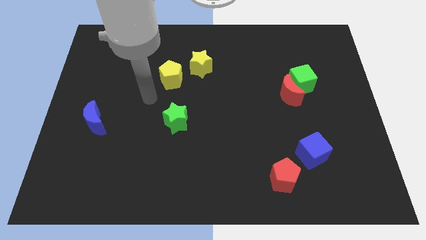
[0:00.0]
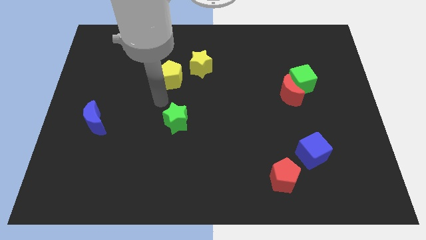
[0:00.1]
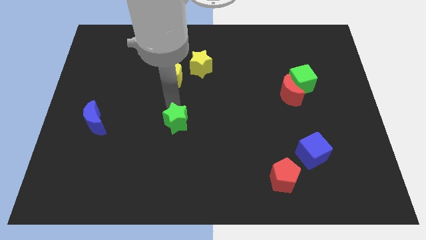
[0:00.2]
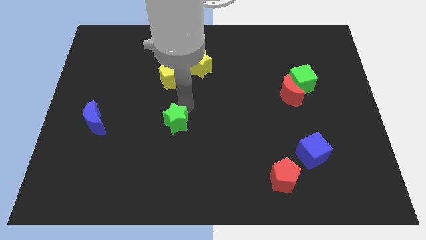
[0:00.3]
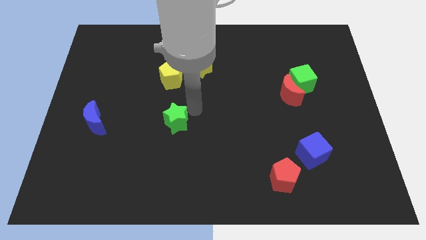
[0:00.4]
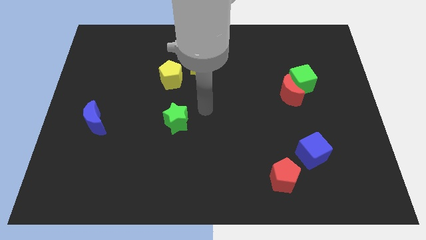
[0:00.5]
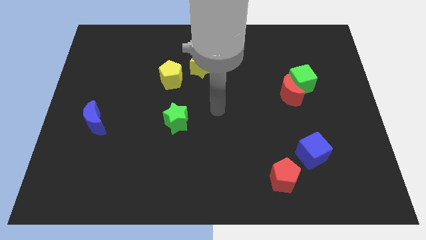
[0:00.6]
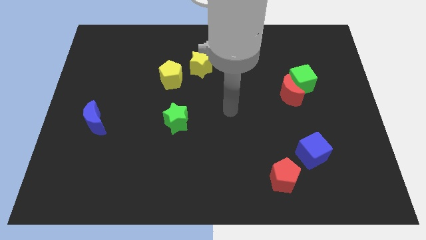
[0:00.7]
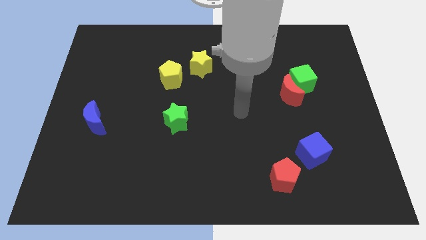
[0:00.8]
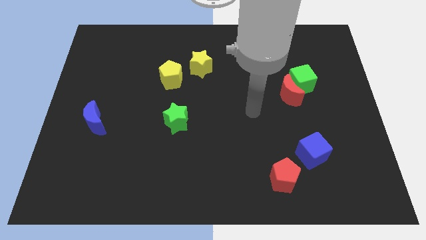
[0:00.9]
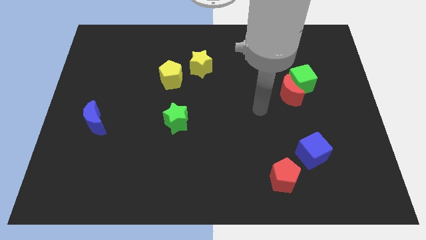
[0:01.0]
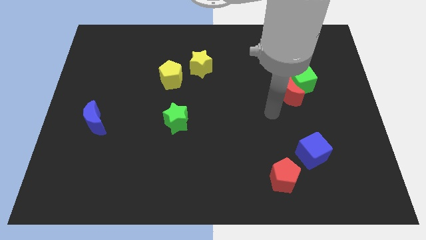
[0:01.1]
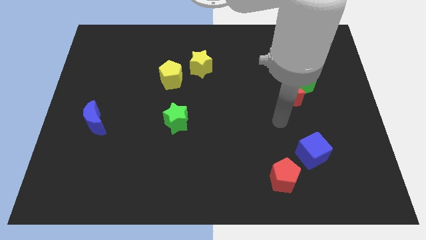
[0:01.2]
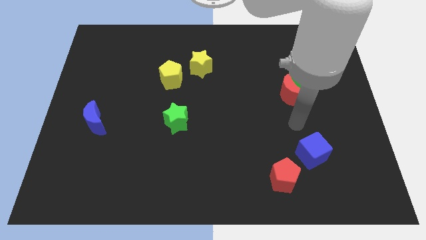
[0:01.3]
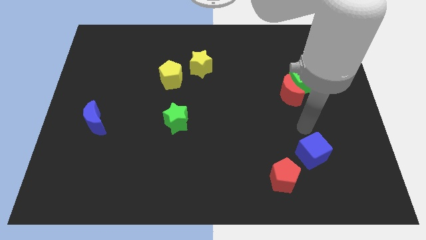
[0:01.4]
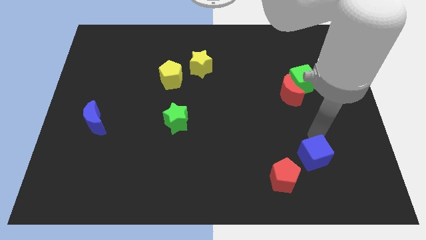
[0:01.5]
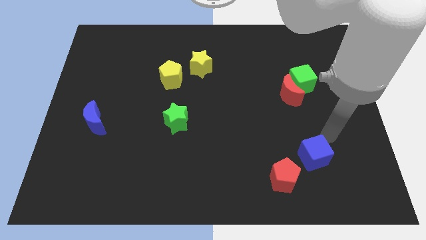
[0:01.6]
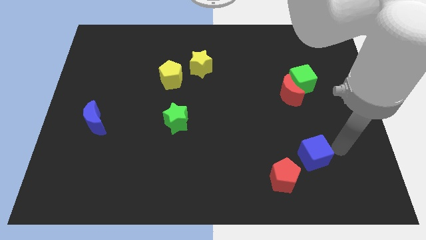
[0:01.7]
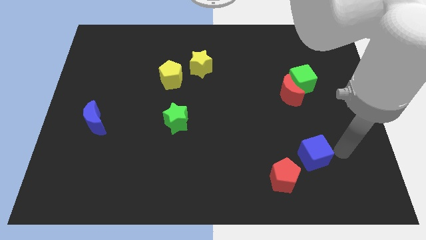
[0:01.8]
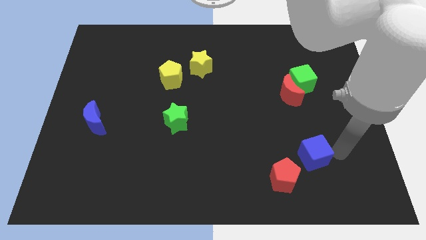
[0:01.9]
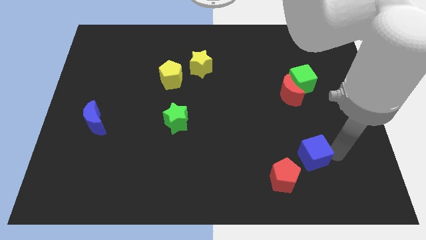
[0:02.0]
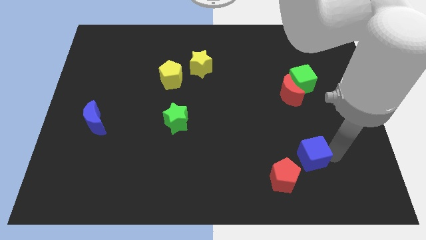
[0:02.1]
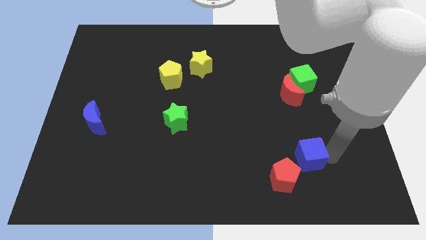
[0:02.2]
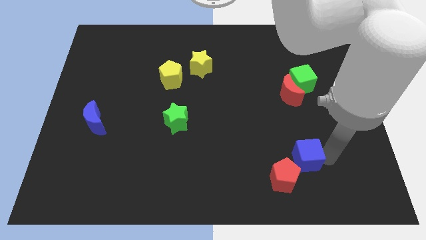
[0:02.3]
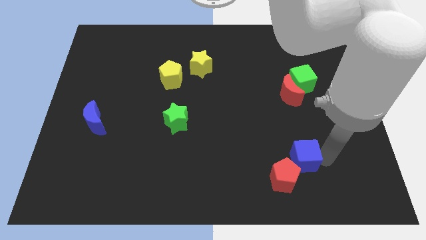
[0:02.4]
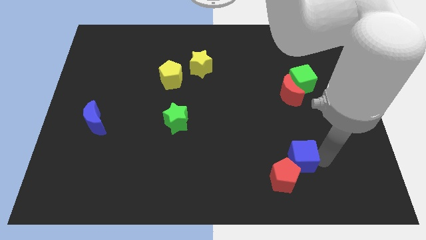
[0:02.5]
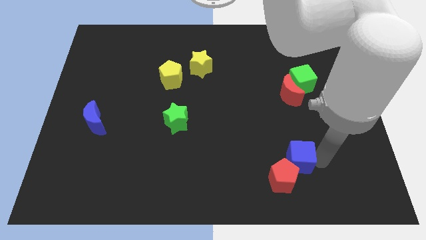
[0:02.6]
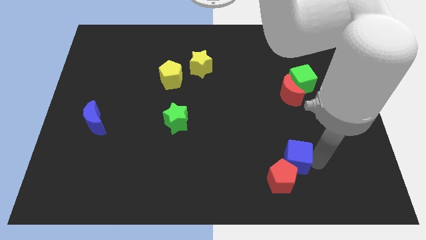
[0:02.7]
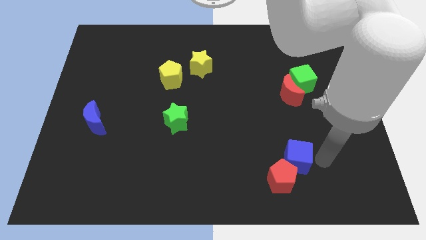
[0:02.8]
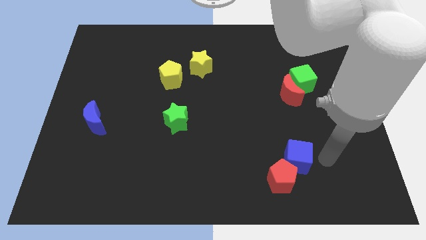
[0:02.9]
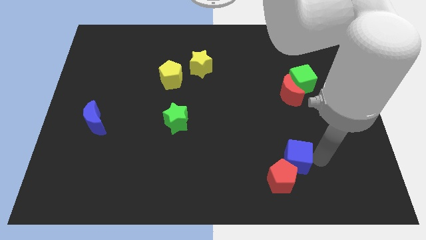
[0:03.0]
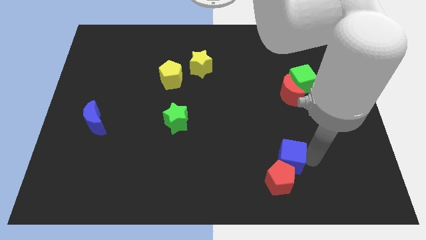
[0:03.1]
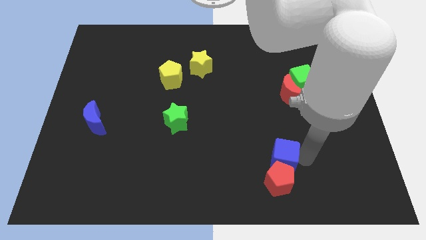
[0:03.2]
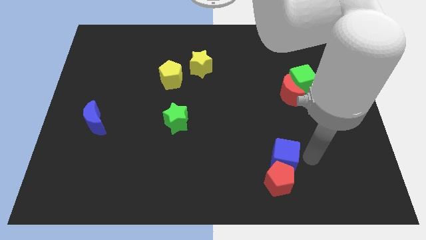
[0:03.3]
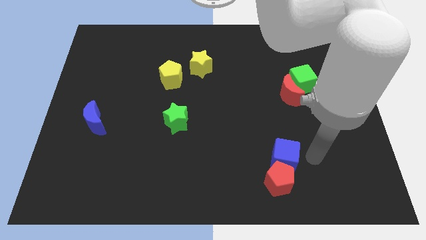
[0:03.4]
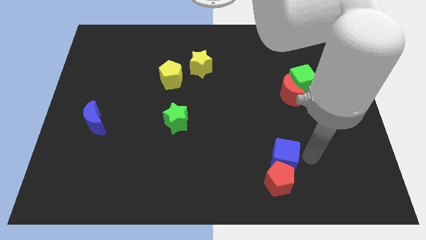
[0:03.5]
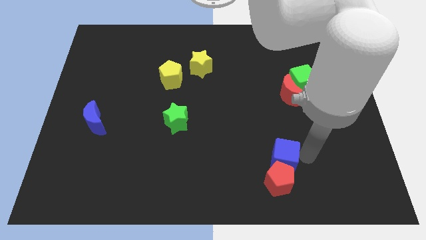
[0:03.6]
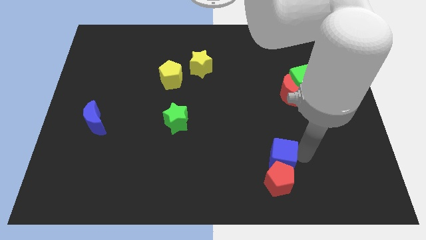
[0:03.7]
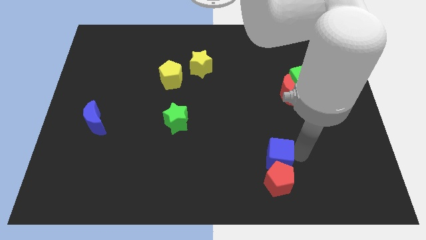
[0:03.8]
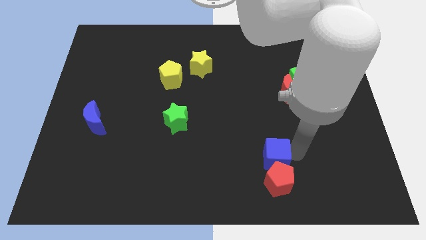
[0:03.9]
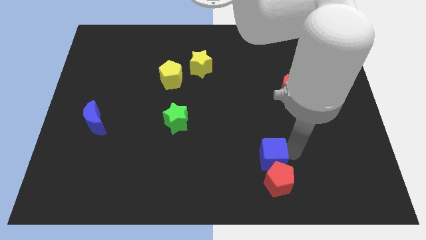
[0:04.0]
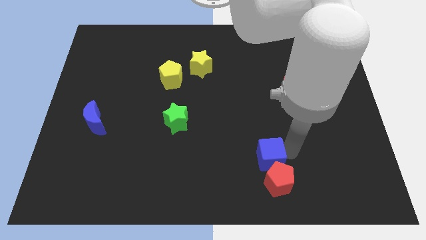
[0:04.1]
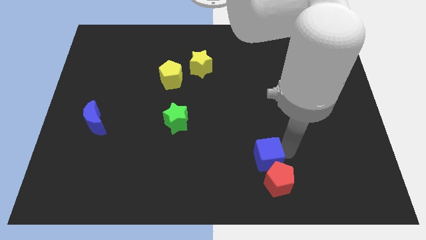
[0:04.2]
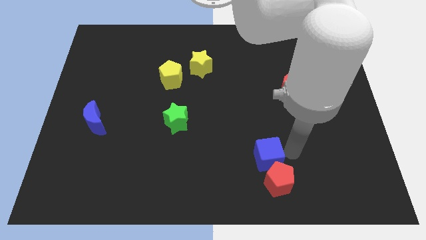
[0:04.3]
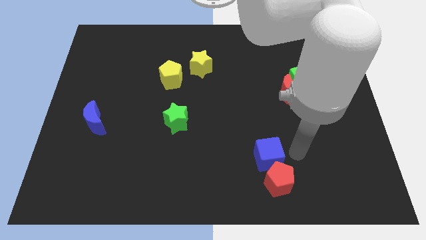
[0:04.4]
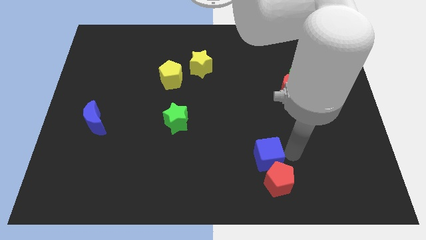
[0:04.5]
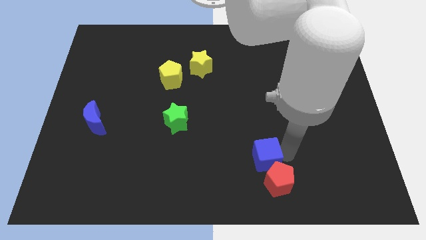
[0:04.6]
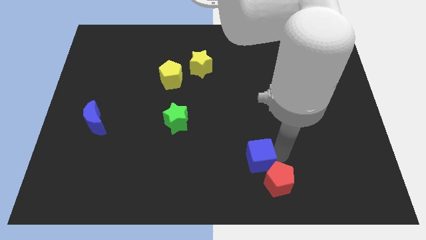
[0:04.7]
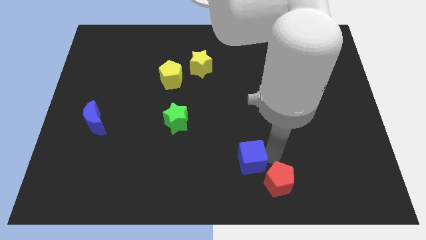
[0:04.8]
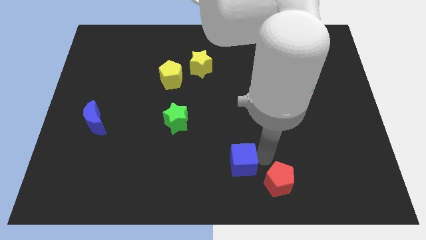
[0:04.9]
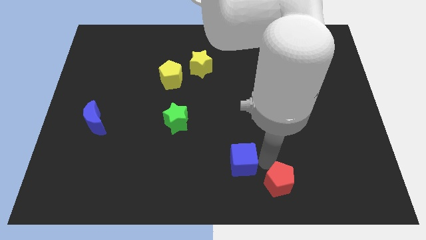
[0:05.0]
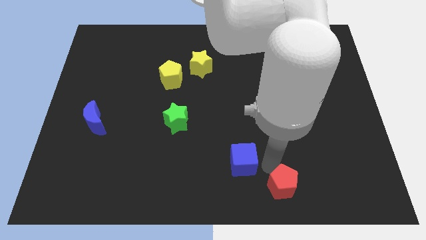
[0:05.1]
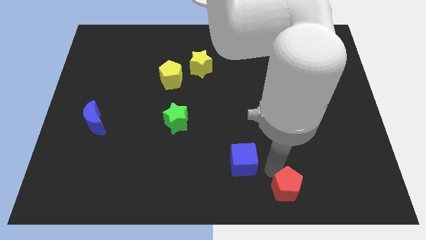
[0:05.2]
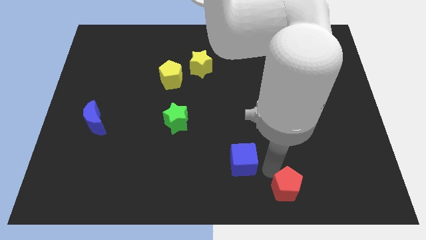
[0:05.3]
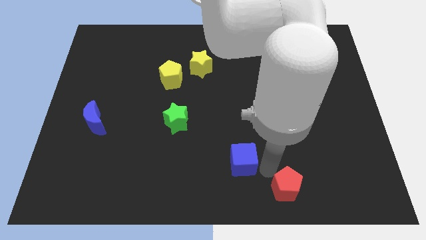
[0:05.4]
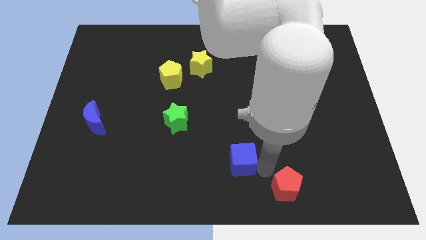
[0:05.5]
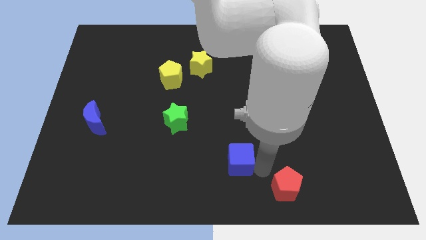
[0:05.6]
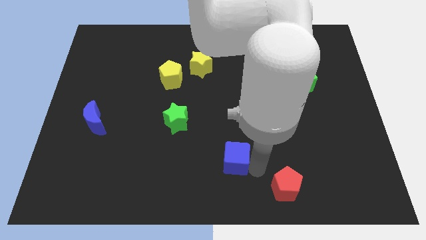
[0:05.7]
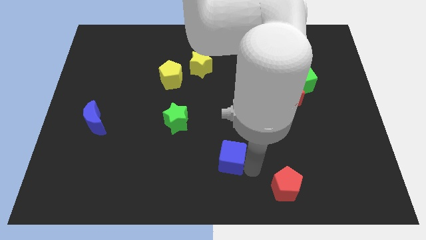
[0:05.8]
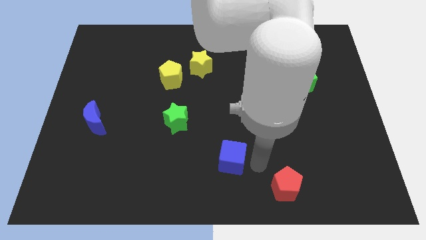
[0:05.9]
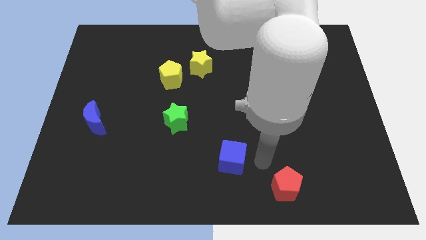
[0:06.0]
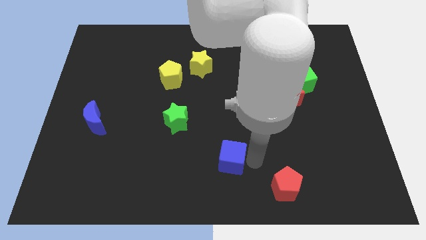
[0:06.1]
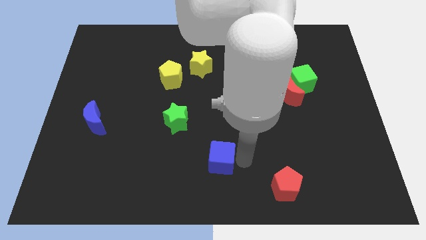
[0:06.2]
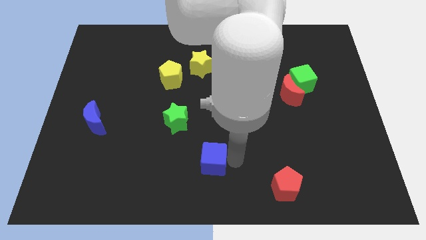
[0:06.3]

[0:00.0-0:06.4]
slide the blue cube to the left

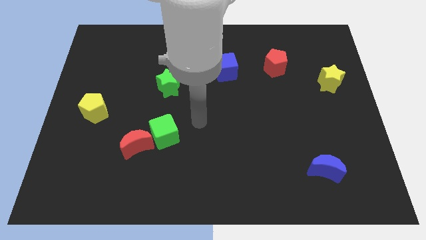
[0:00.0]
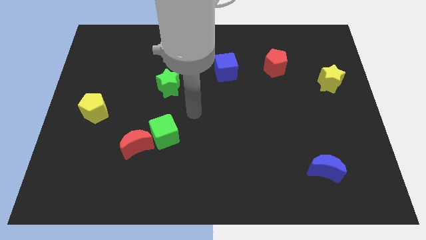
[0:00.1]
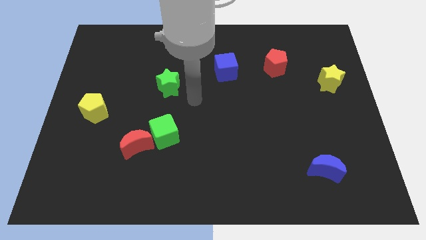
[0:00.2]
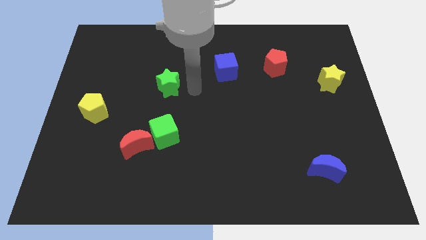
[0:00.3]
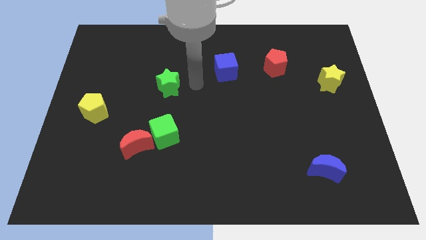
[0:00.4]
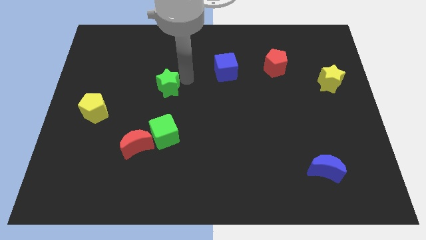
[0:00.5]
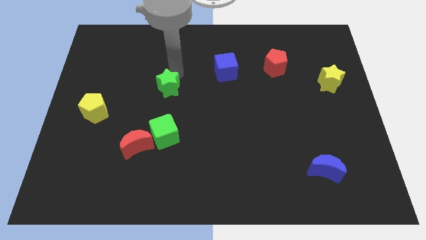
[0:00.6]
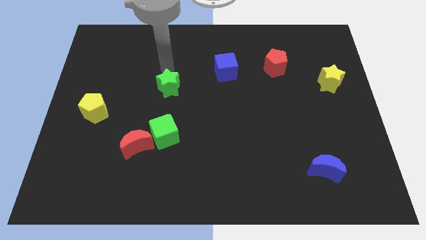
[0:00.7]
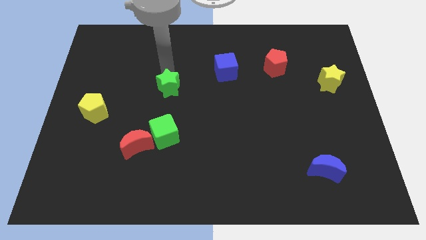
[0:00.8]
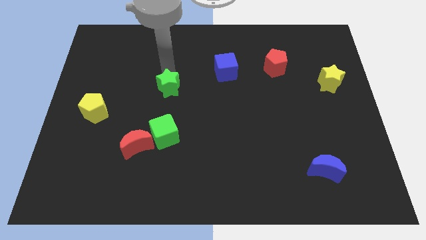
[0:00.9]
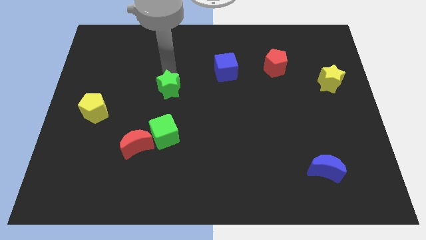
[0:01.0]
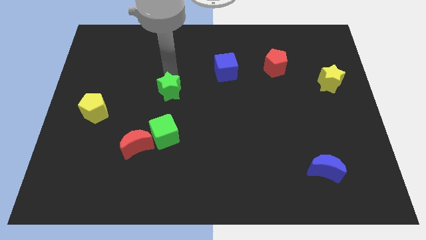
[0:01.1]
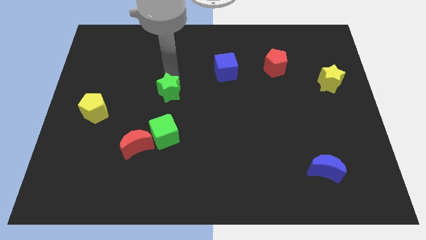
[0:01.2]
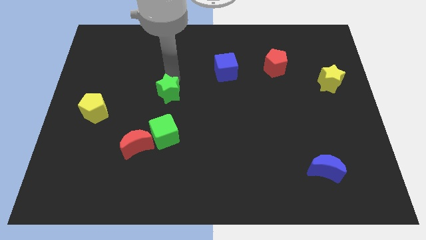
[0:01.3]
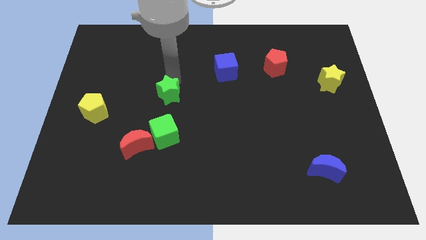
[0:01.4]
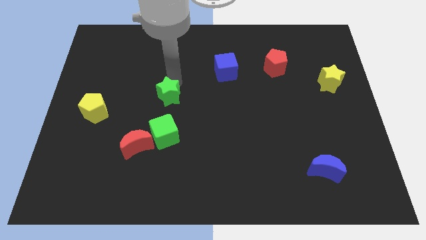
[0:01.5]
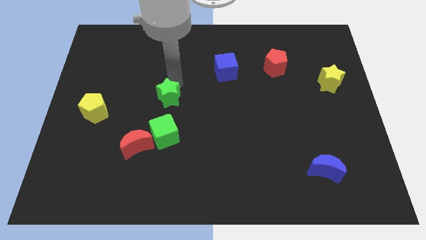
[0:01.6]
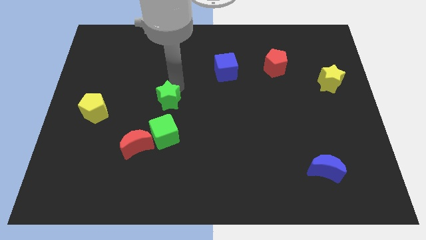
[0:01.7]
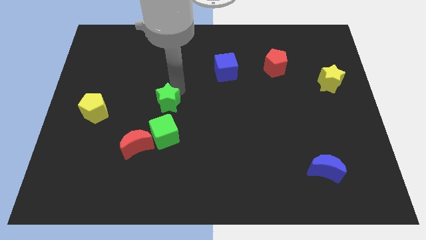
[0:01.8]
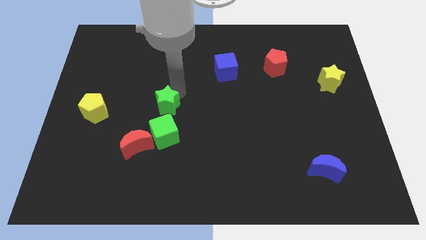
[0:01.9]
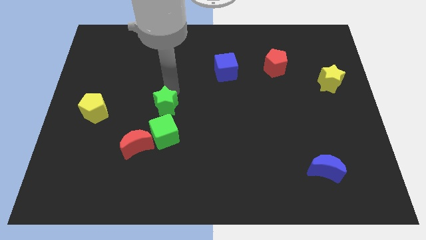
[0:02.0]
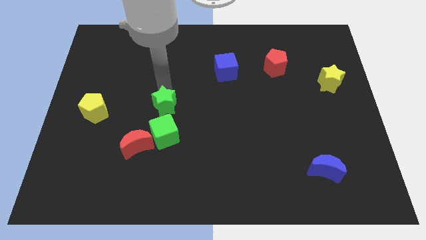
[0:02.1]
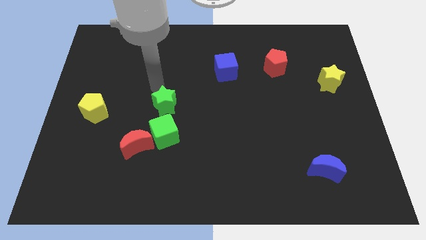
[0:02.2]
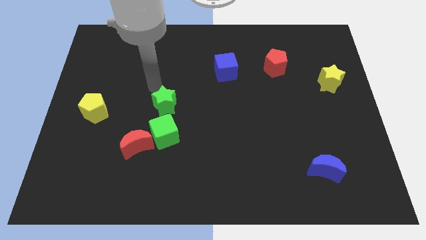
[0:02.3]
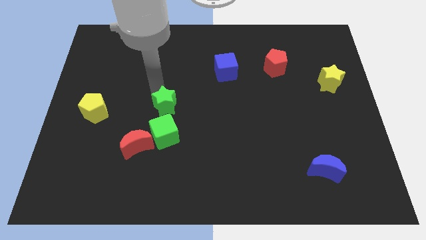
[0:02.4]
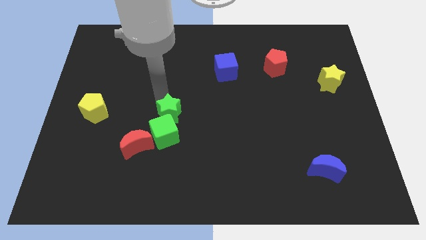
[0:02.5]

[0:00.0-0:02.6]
slide the green star somewhat downwards
